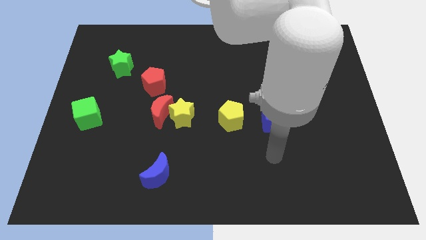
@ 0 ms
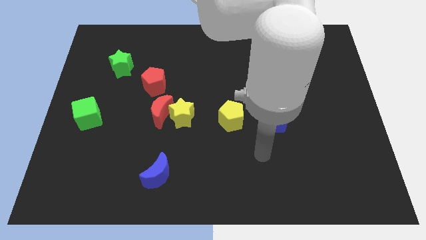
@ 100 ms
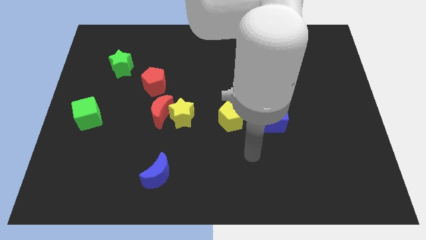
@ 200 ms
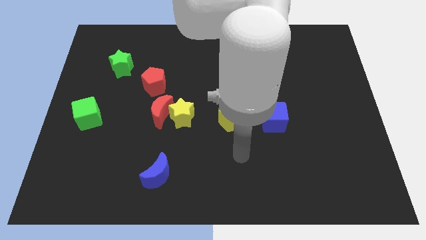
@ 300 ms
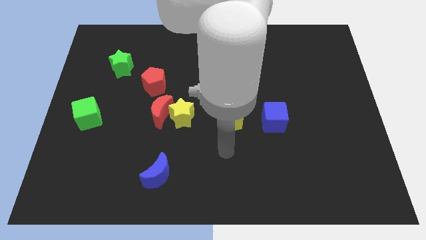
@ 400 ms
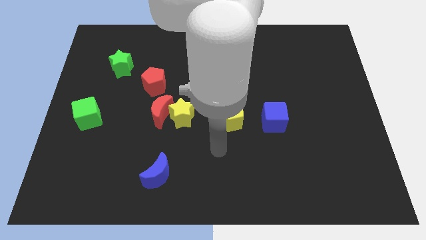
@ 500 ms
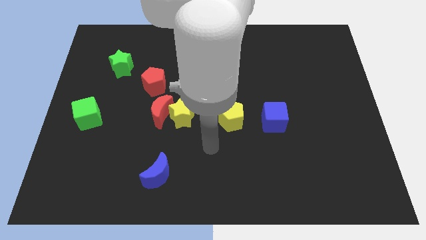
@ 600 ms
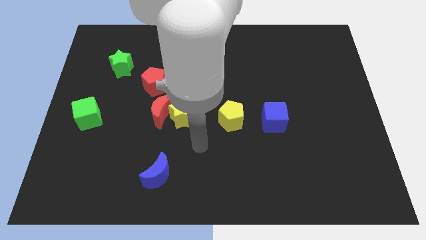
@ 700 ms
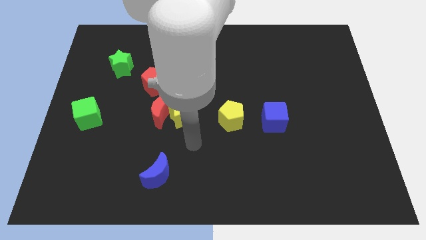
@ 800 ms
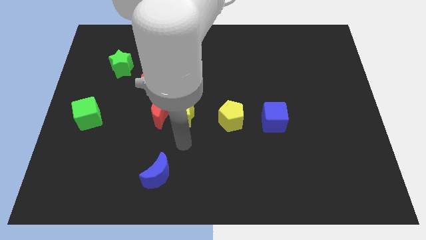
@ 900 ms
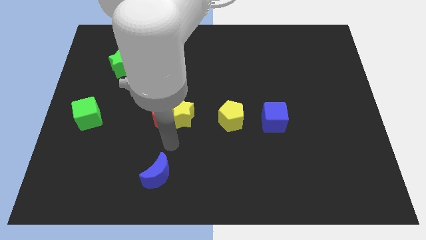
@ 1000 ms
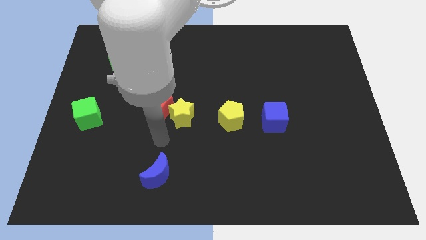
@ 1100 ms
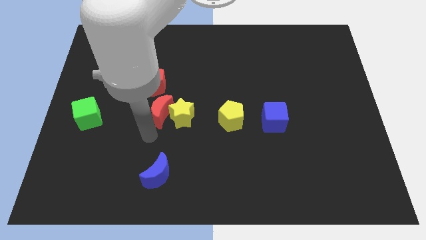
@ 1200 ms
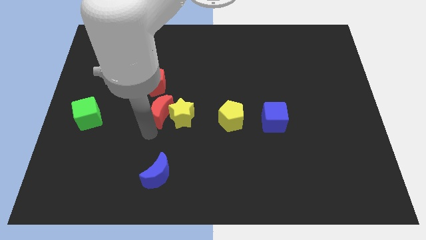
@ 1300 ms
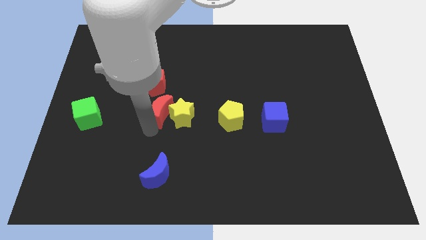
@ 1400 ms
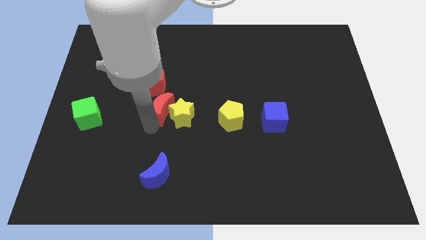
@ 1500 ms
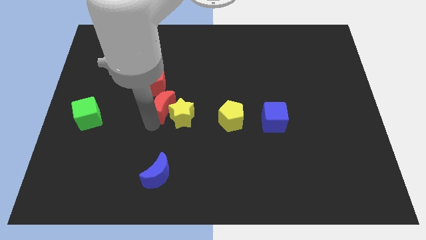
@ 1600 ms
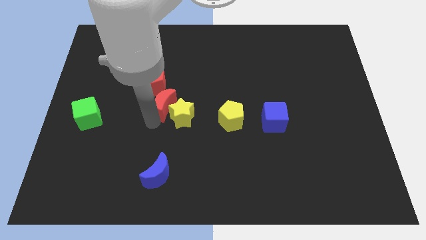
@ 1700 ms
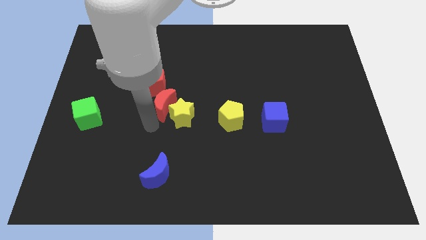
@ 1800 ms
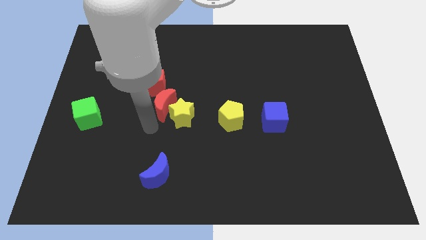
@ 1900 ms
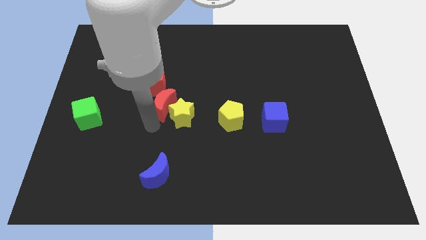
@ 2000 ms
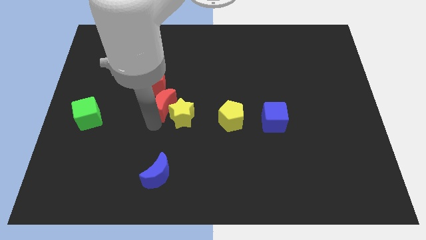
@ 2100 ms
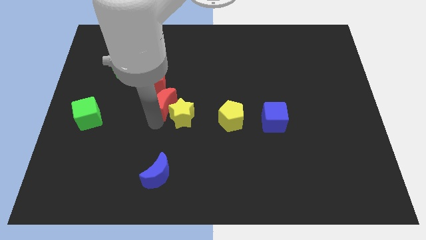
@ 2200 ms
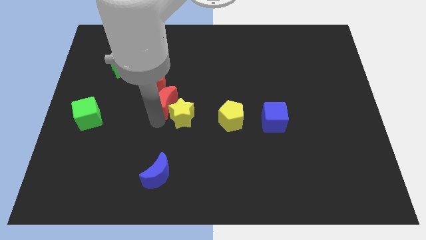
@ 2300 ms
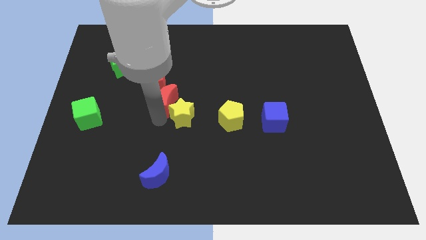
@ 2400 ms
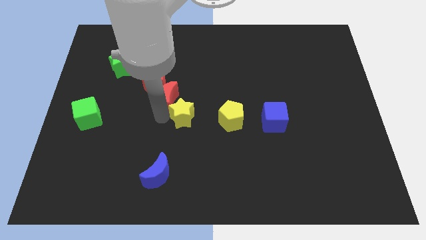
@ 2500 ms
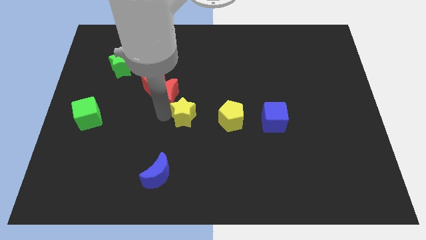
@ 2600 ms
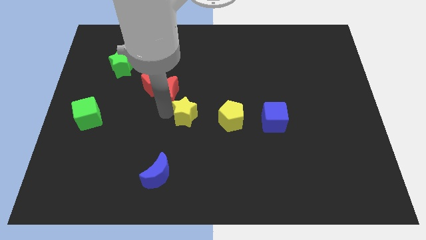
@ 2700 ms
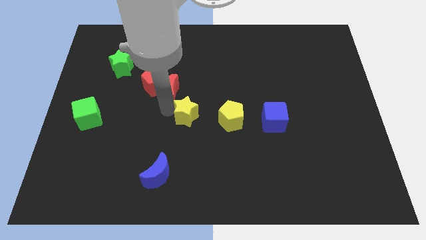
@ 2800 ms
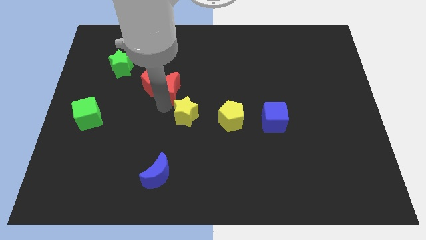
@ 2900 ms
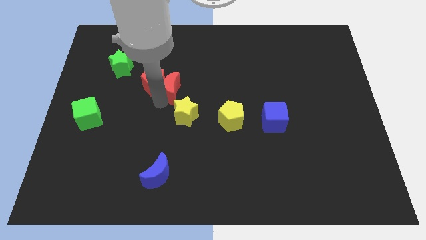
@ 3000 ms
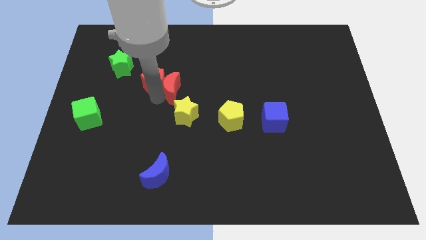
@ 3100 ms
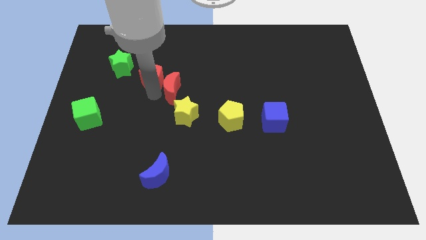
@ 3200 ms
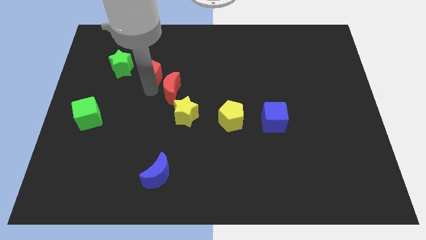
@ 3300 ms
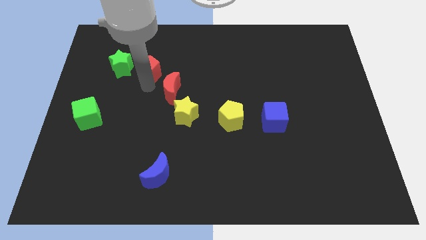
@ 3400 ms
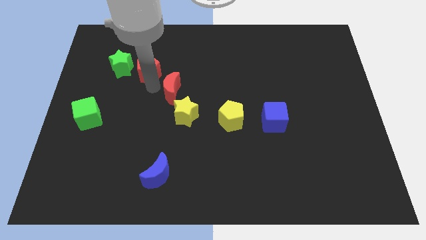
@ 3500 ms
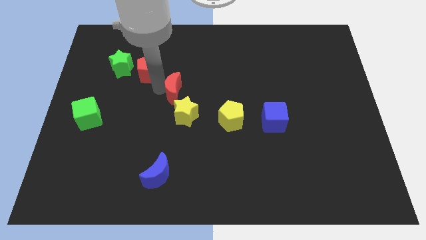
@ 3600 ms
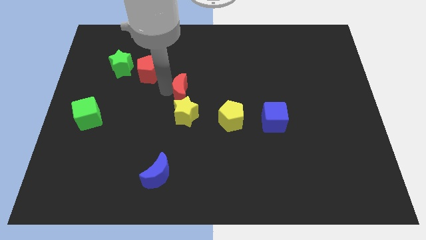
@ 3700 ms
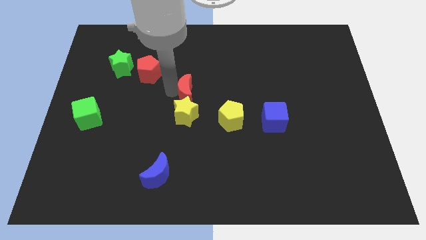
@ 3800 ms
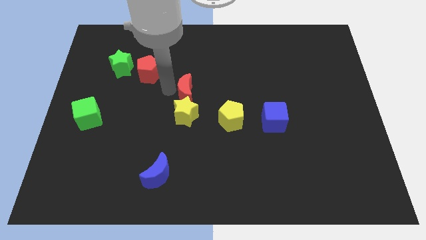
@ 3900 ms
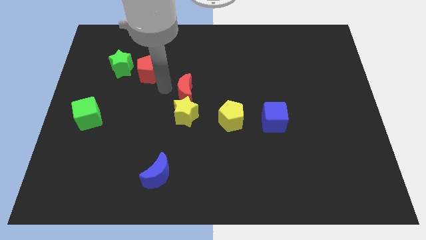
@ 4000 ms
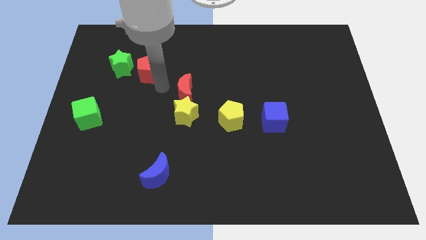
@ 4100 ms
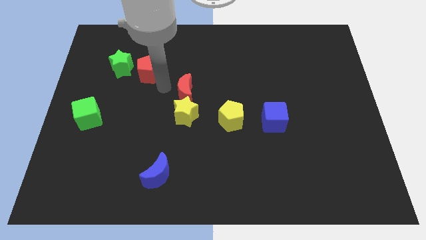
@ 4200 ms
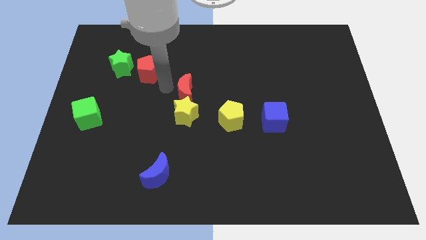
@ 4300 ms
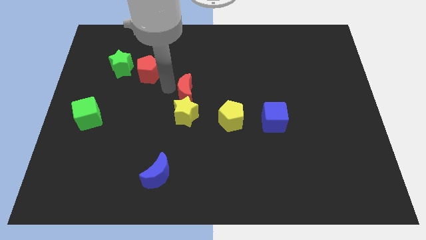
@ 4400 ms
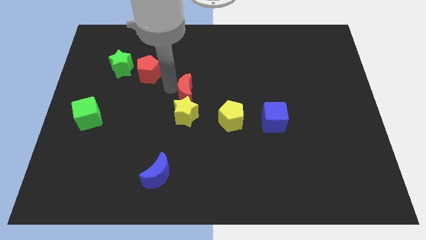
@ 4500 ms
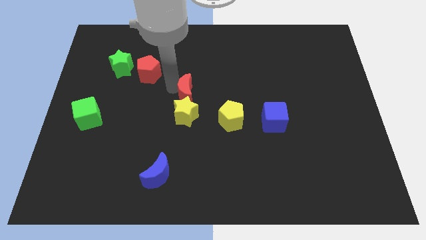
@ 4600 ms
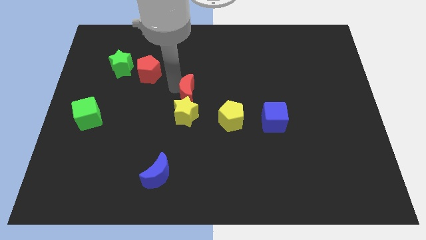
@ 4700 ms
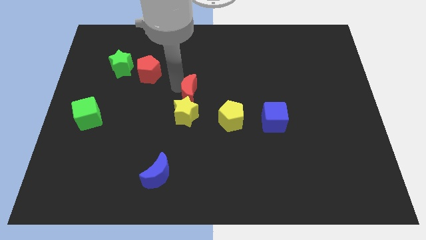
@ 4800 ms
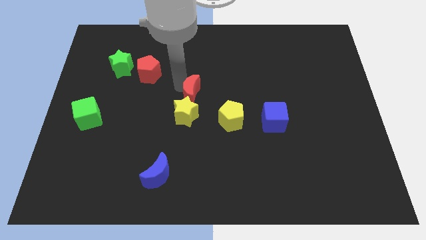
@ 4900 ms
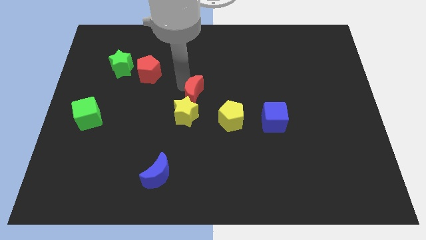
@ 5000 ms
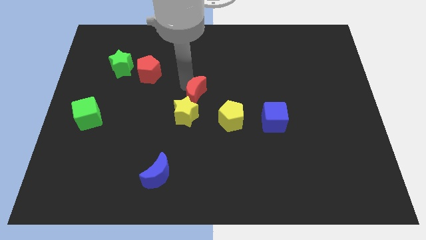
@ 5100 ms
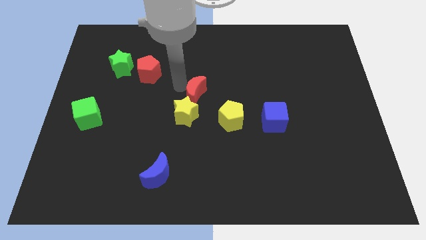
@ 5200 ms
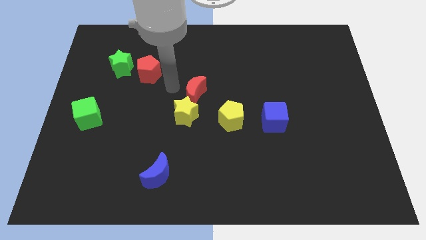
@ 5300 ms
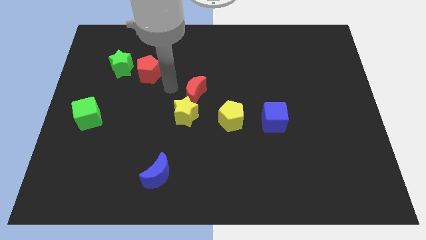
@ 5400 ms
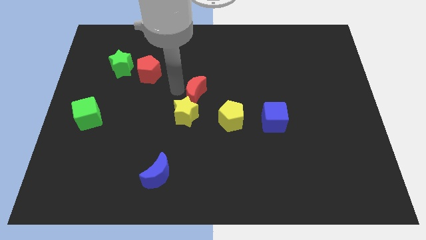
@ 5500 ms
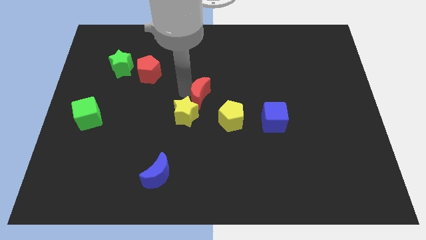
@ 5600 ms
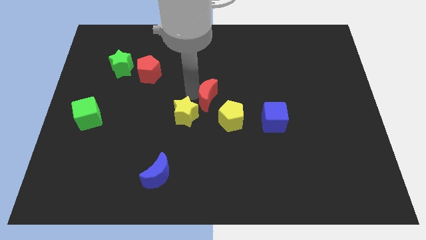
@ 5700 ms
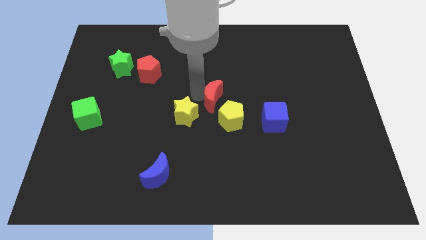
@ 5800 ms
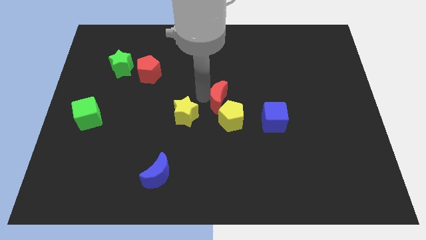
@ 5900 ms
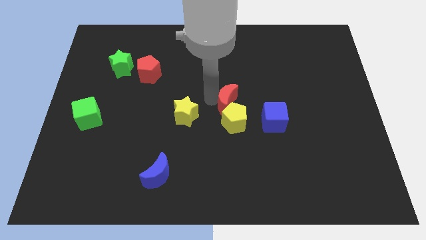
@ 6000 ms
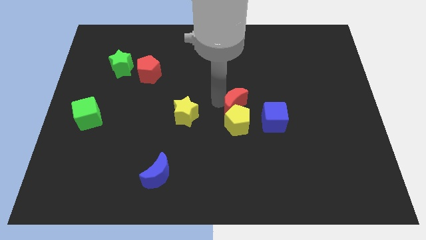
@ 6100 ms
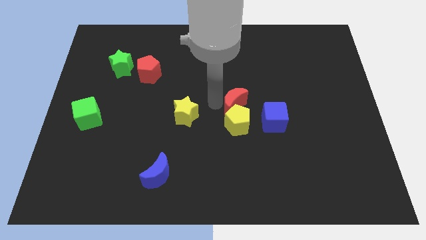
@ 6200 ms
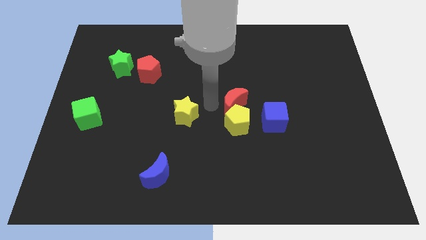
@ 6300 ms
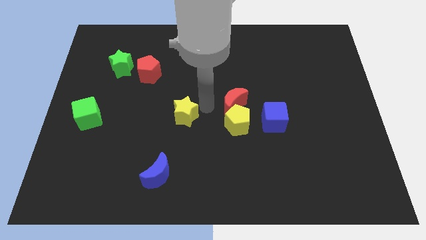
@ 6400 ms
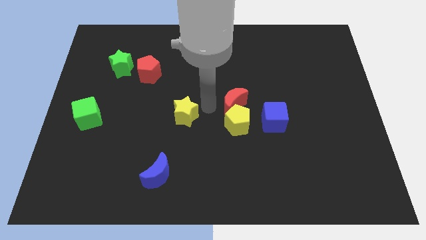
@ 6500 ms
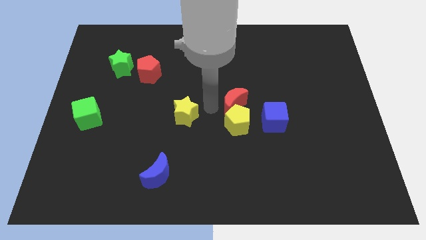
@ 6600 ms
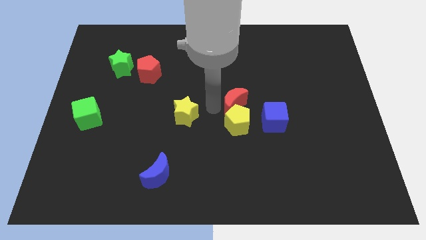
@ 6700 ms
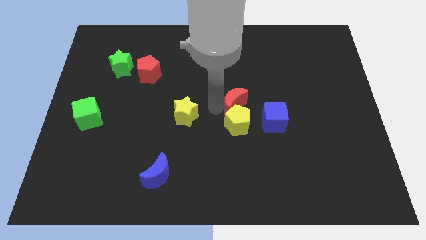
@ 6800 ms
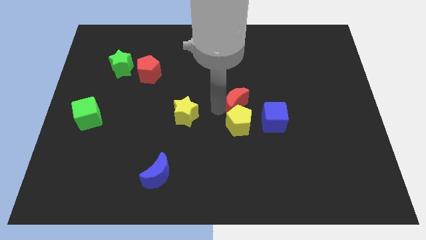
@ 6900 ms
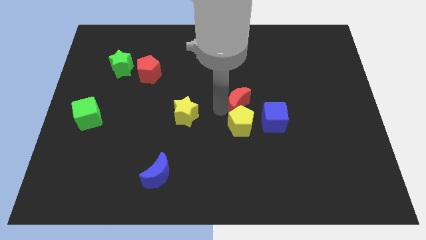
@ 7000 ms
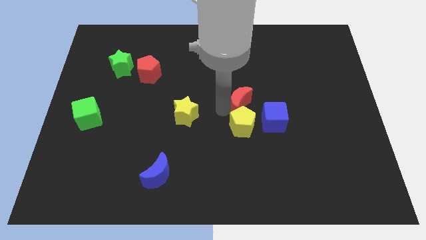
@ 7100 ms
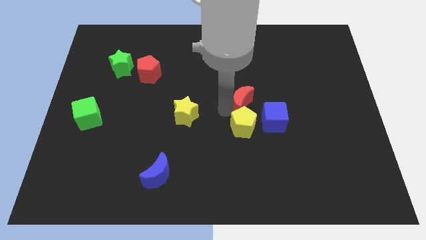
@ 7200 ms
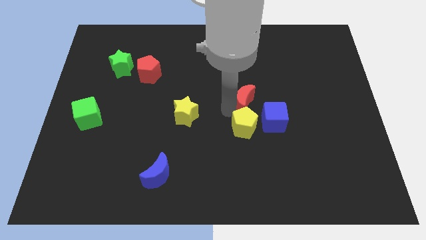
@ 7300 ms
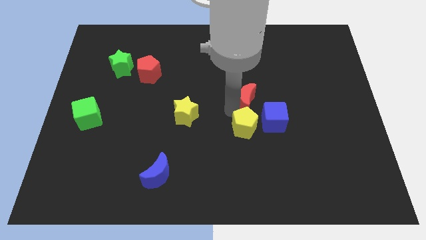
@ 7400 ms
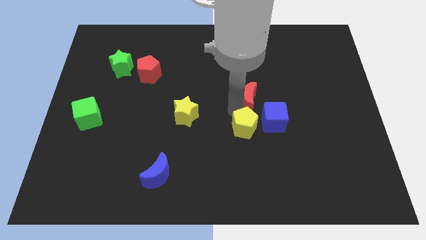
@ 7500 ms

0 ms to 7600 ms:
push the red moon right

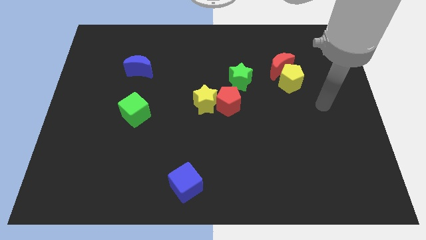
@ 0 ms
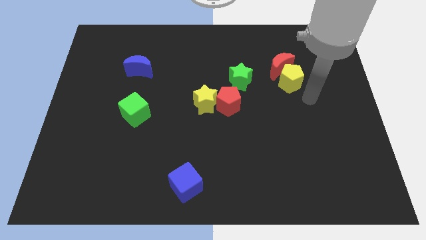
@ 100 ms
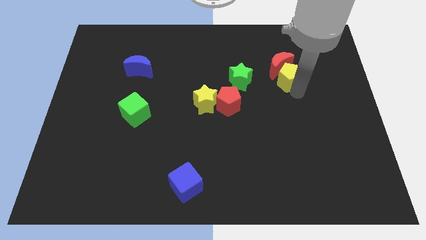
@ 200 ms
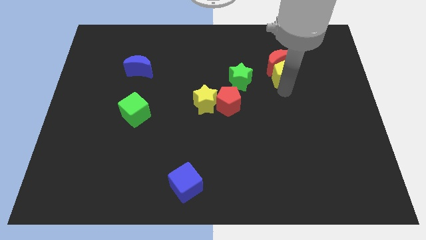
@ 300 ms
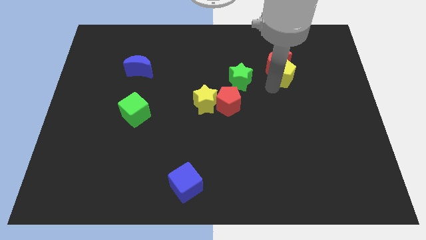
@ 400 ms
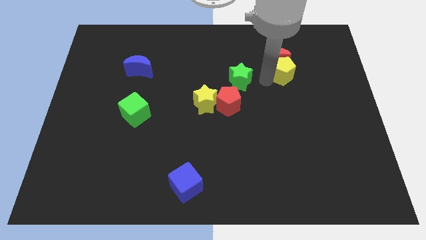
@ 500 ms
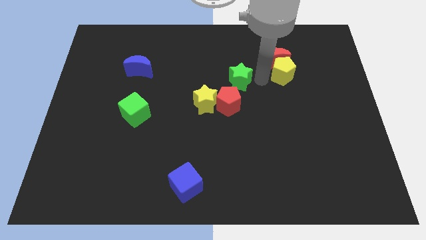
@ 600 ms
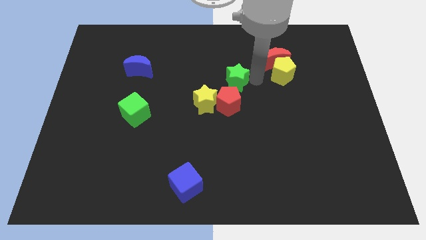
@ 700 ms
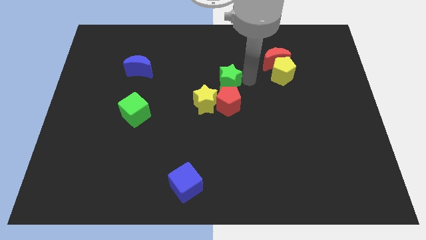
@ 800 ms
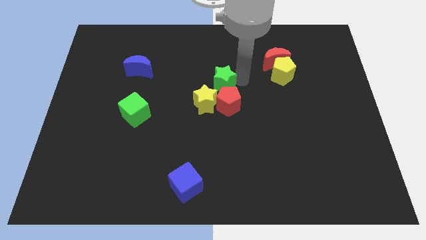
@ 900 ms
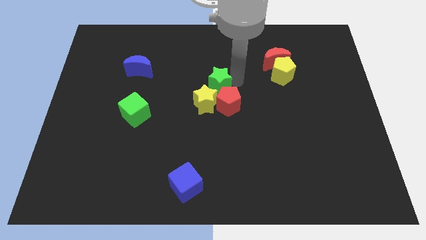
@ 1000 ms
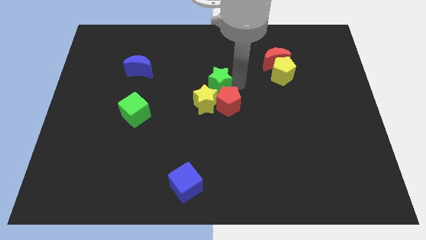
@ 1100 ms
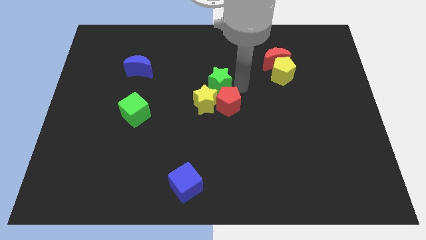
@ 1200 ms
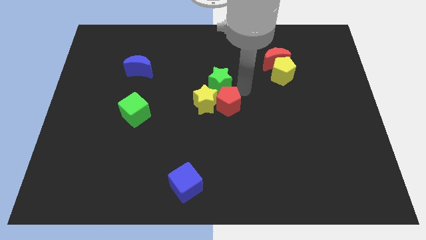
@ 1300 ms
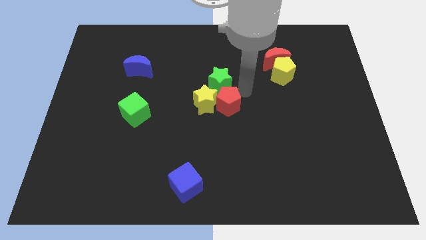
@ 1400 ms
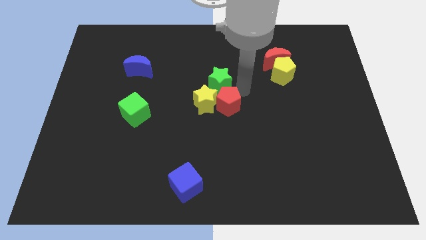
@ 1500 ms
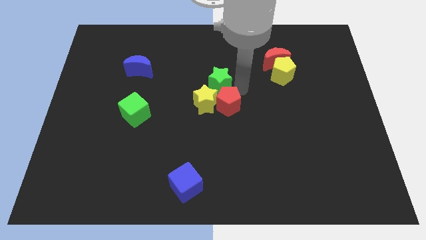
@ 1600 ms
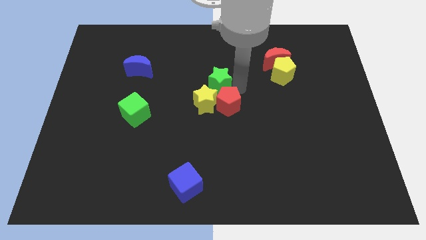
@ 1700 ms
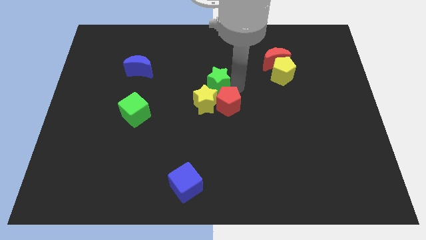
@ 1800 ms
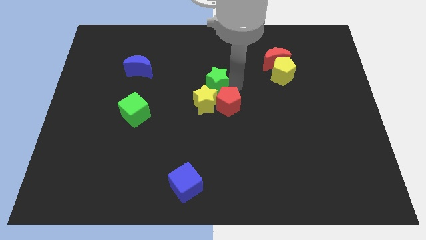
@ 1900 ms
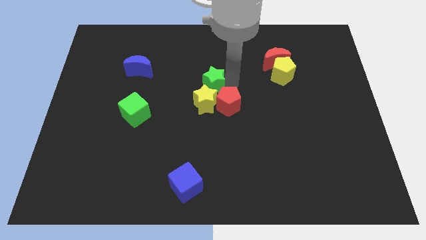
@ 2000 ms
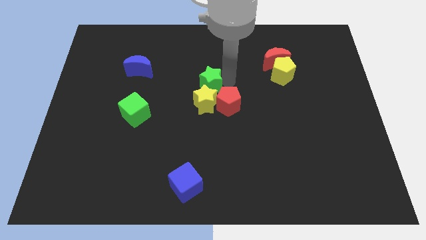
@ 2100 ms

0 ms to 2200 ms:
slightly slide the green star to the left
